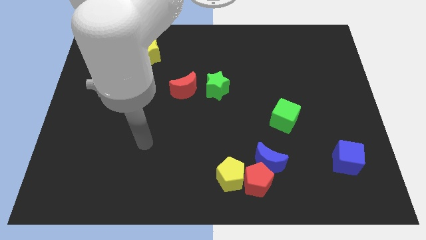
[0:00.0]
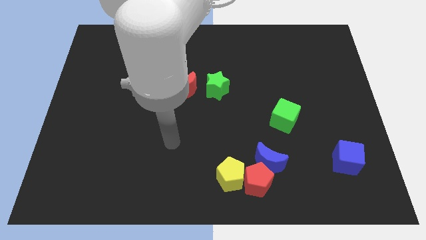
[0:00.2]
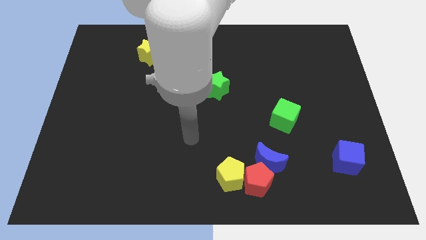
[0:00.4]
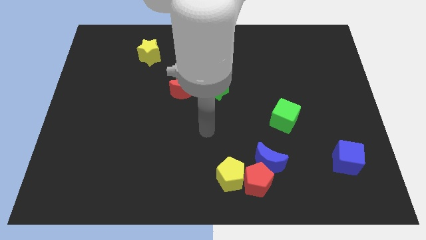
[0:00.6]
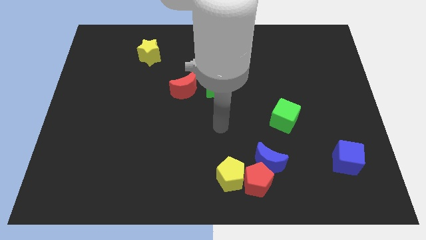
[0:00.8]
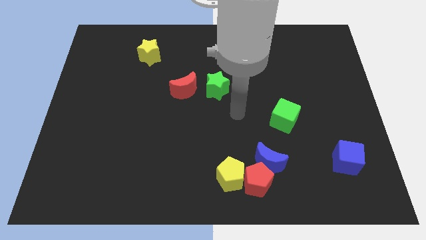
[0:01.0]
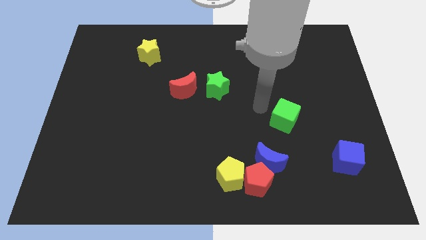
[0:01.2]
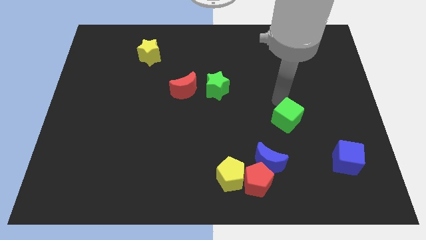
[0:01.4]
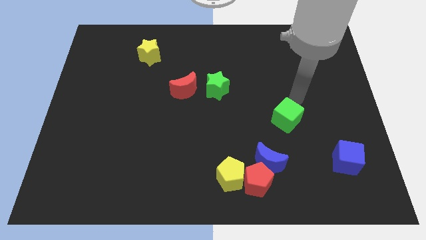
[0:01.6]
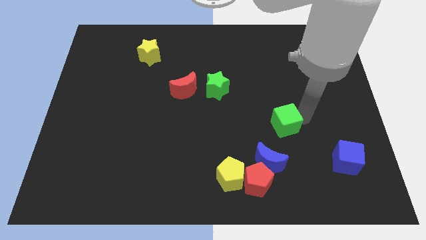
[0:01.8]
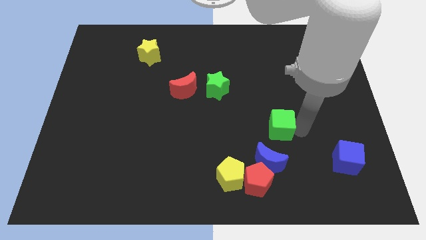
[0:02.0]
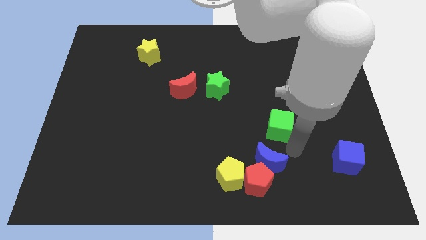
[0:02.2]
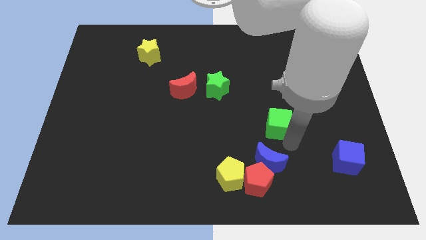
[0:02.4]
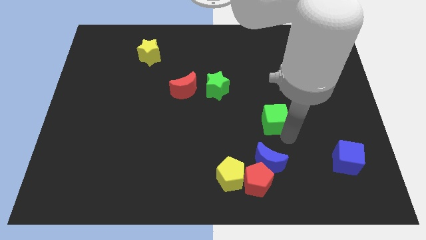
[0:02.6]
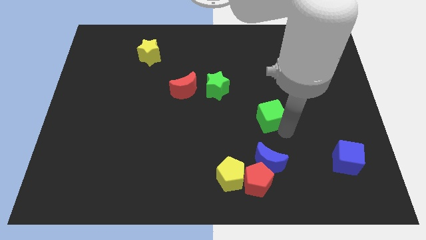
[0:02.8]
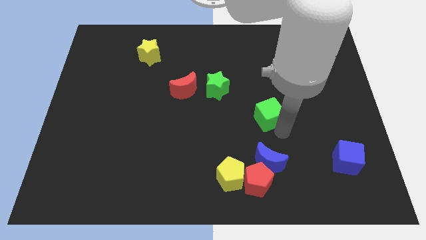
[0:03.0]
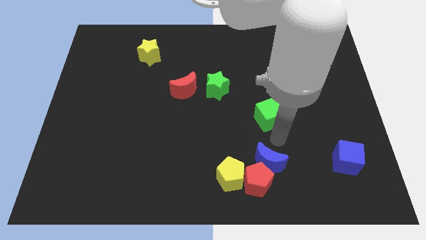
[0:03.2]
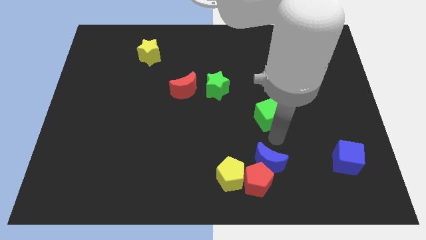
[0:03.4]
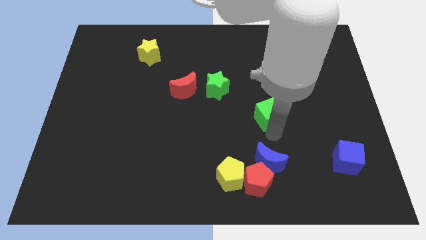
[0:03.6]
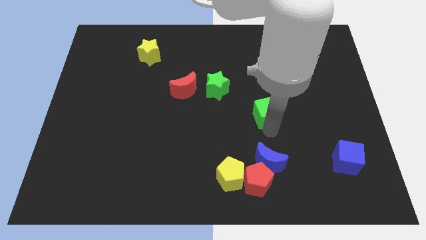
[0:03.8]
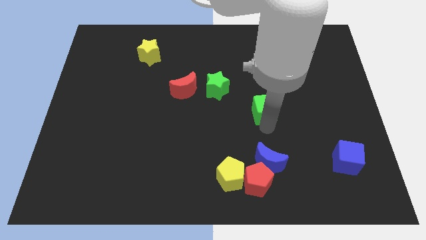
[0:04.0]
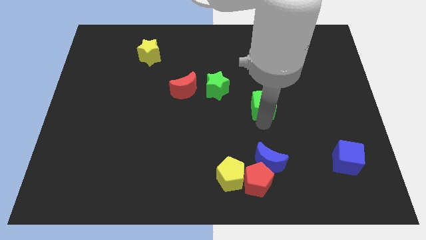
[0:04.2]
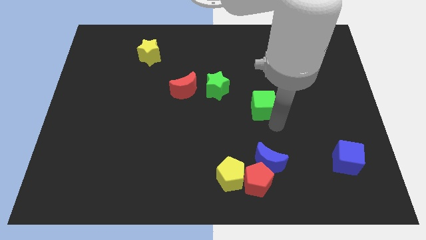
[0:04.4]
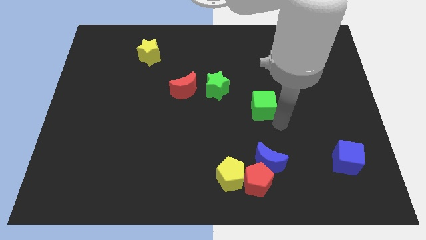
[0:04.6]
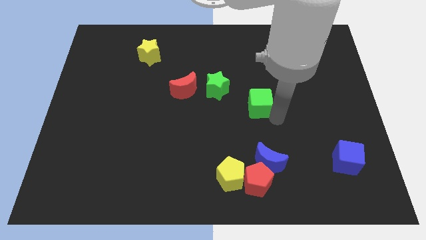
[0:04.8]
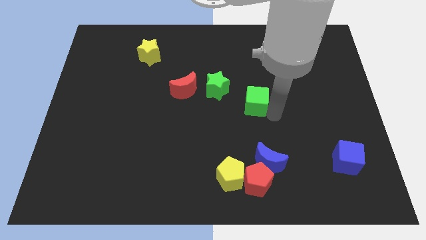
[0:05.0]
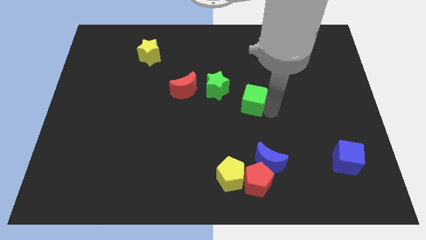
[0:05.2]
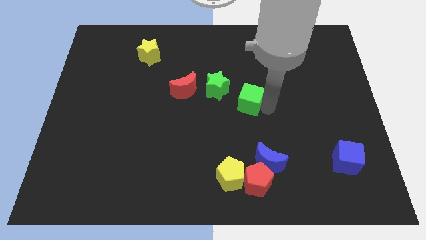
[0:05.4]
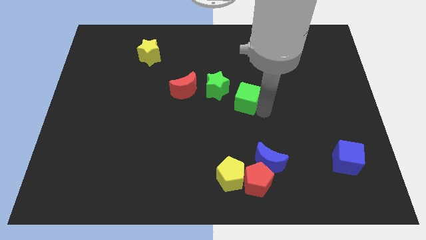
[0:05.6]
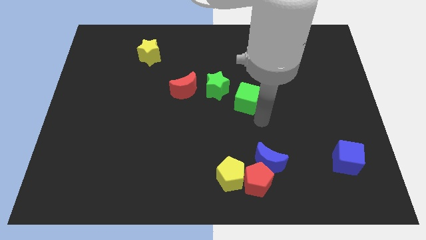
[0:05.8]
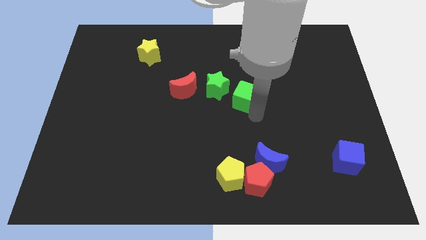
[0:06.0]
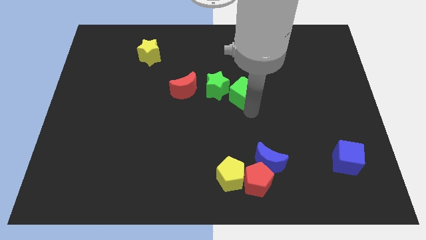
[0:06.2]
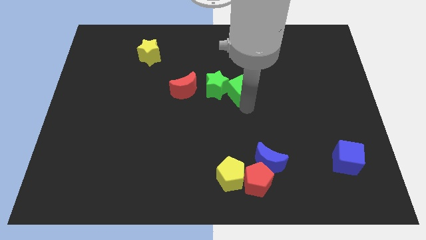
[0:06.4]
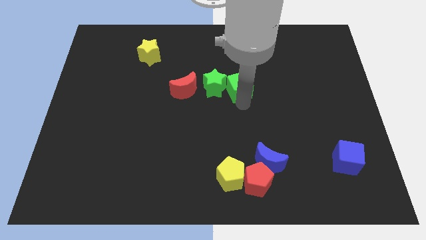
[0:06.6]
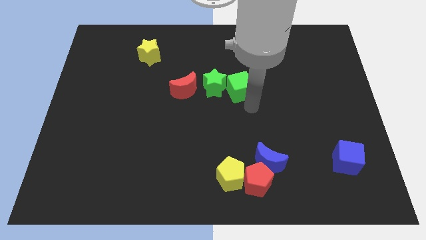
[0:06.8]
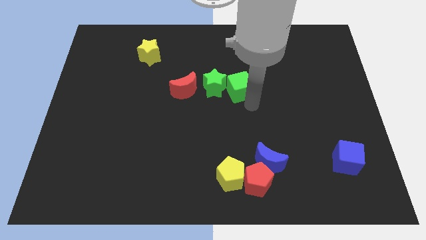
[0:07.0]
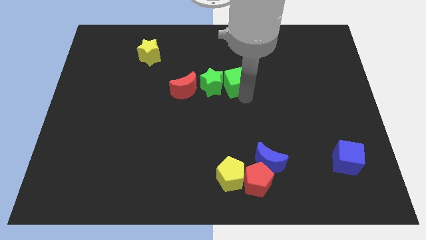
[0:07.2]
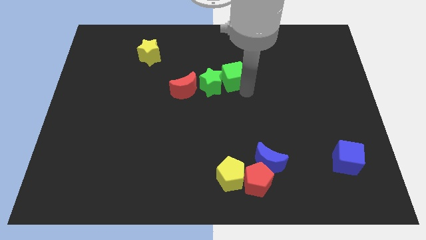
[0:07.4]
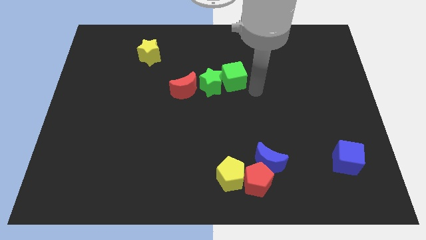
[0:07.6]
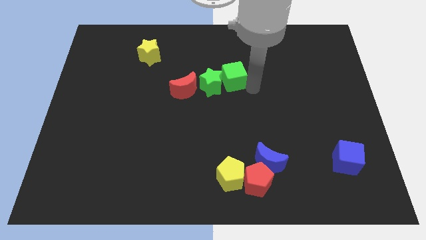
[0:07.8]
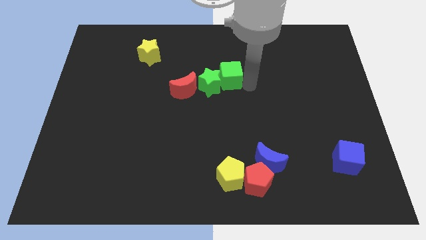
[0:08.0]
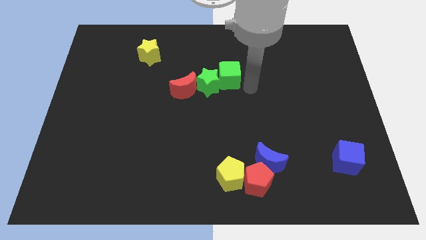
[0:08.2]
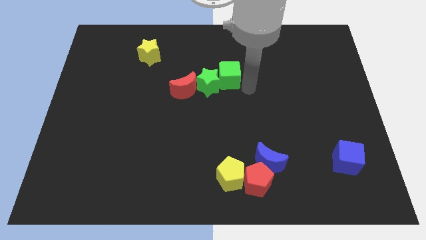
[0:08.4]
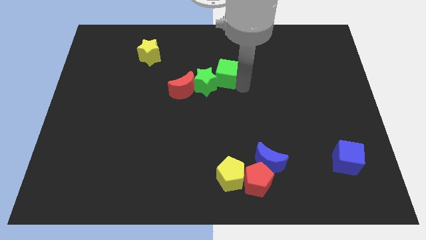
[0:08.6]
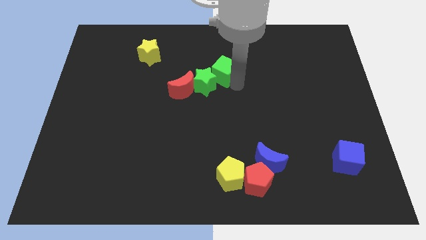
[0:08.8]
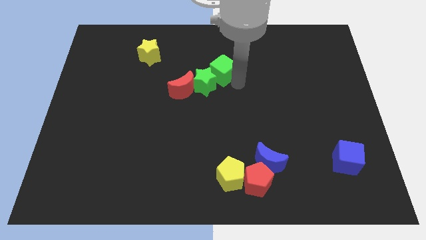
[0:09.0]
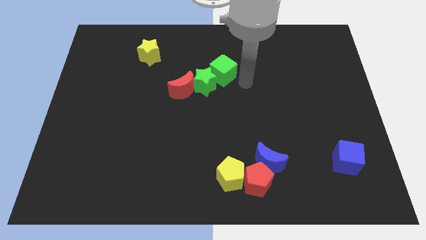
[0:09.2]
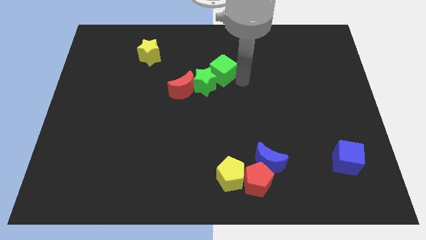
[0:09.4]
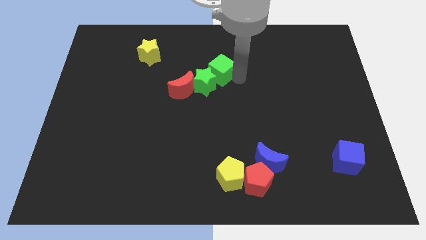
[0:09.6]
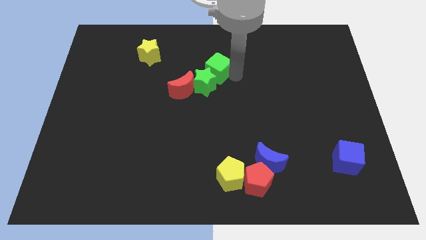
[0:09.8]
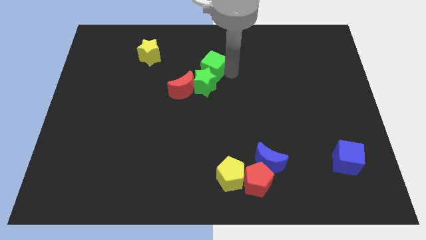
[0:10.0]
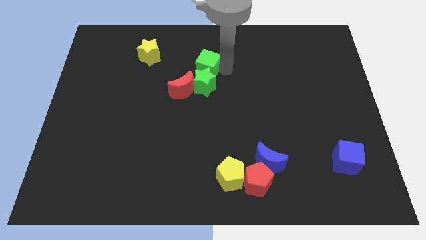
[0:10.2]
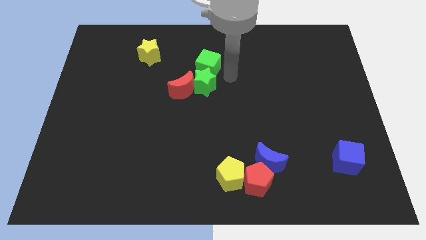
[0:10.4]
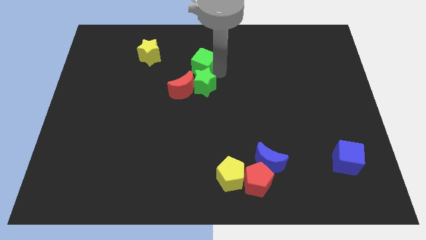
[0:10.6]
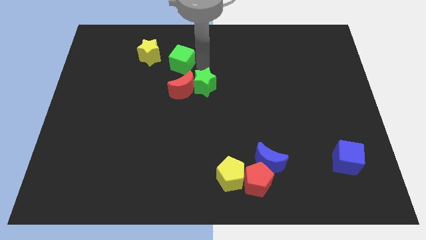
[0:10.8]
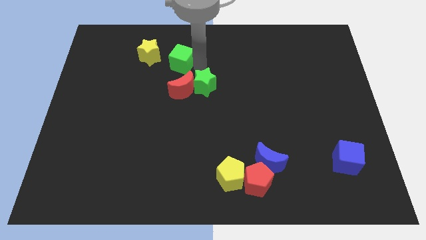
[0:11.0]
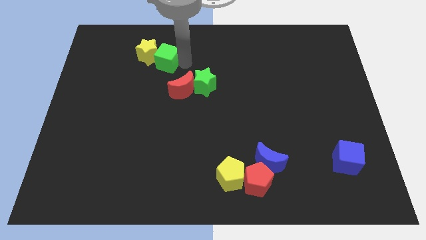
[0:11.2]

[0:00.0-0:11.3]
push the green cube close to the yellow star

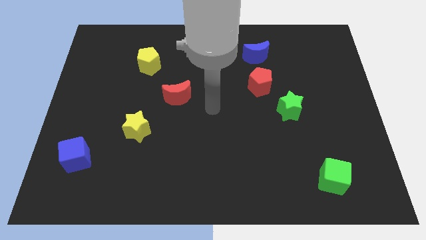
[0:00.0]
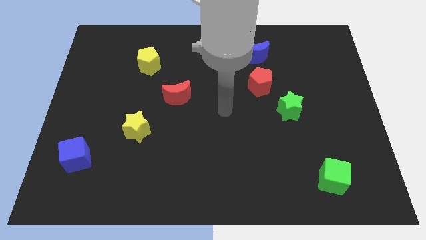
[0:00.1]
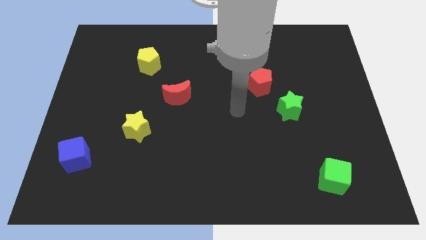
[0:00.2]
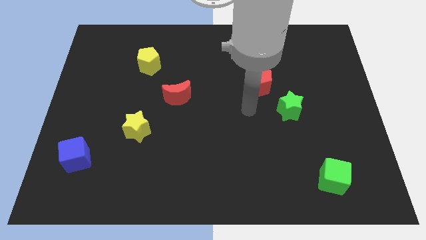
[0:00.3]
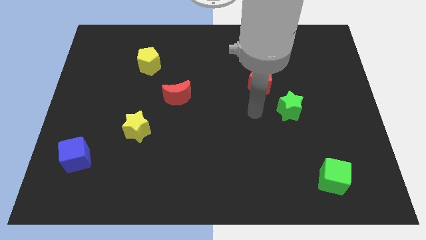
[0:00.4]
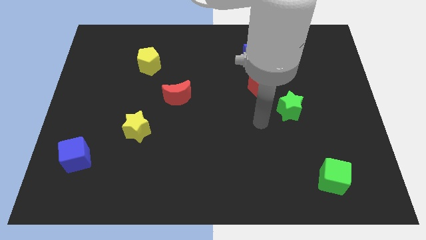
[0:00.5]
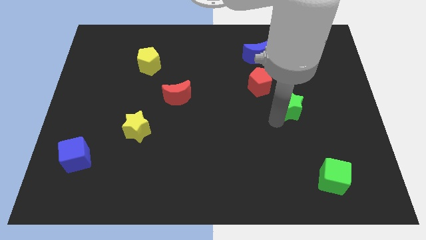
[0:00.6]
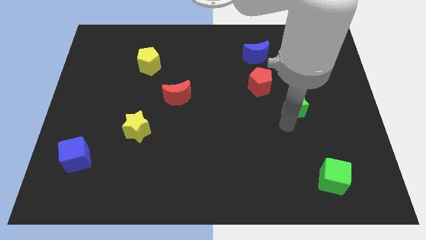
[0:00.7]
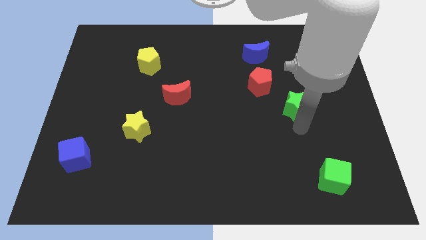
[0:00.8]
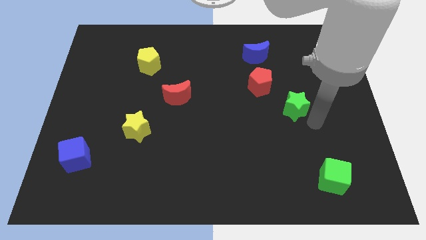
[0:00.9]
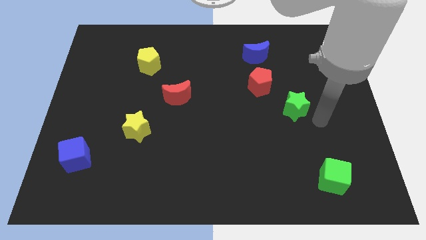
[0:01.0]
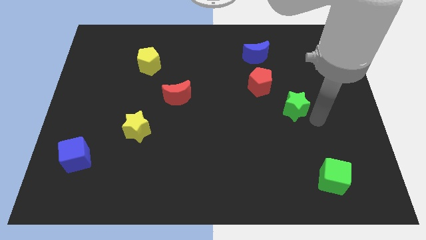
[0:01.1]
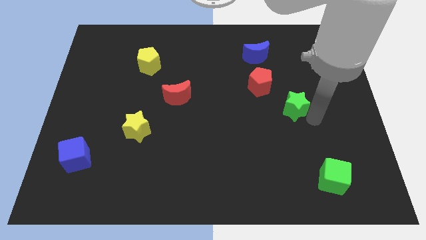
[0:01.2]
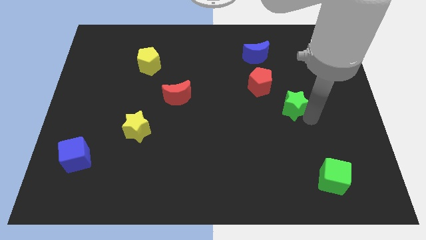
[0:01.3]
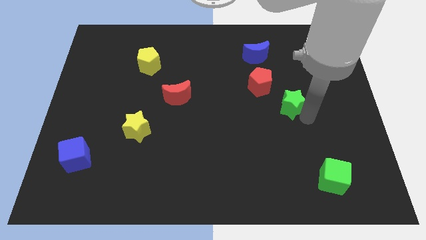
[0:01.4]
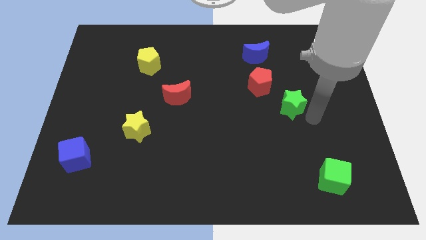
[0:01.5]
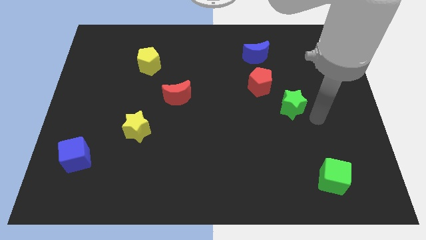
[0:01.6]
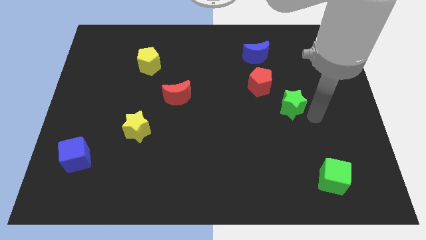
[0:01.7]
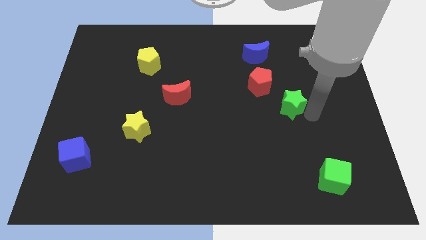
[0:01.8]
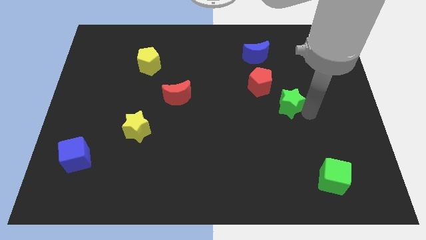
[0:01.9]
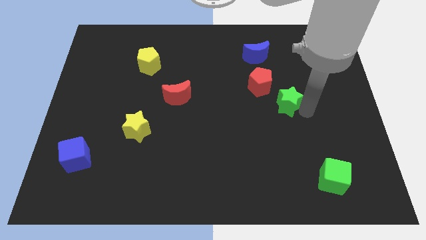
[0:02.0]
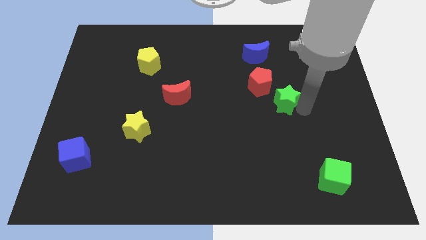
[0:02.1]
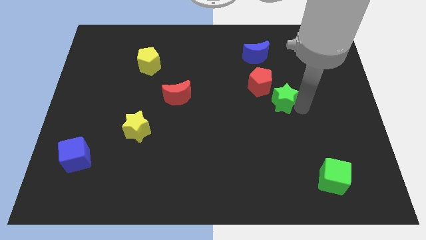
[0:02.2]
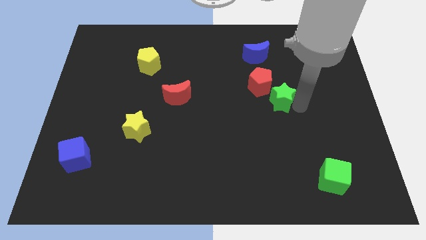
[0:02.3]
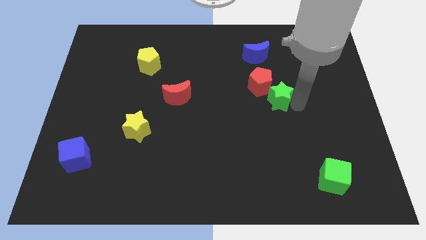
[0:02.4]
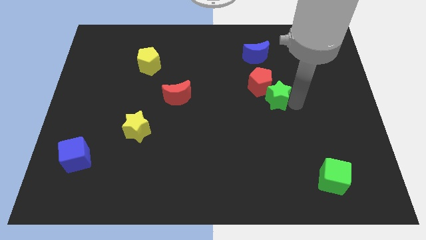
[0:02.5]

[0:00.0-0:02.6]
push the green star close to the red pentagon
